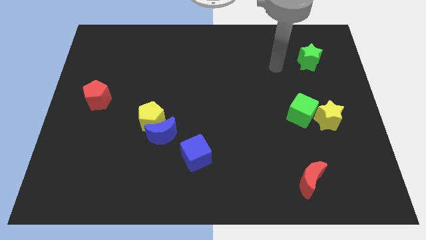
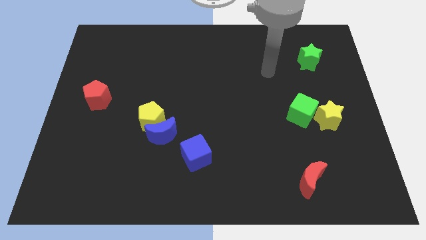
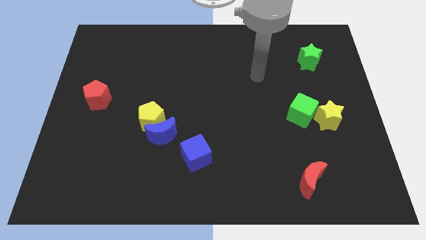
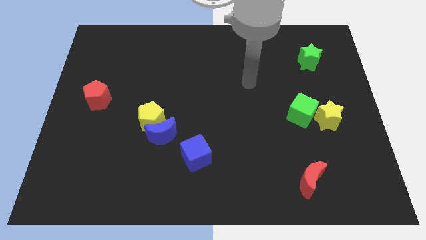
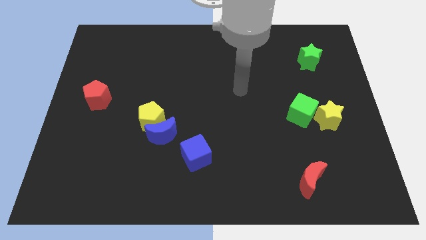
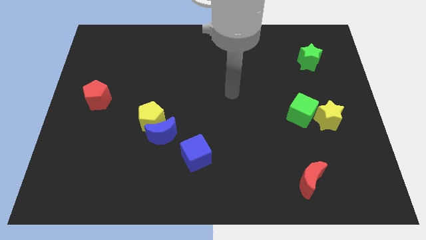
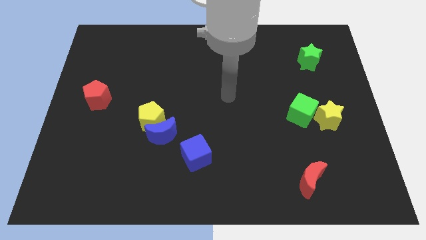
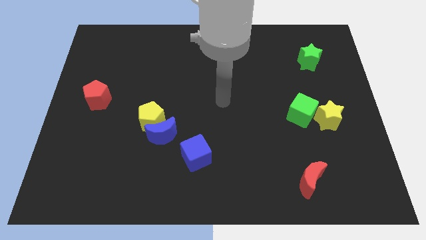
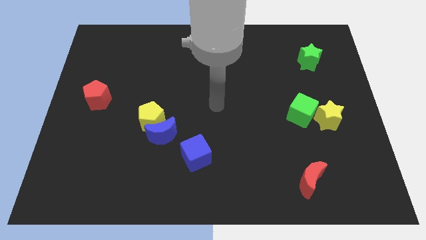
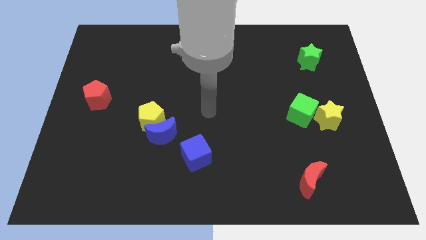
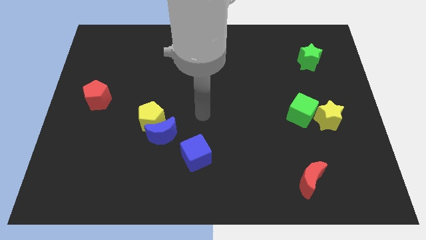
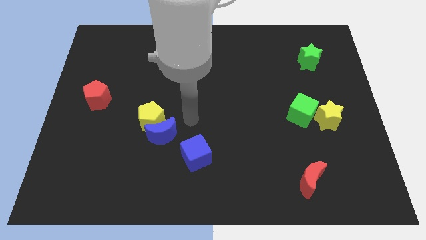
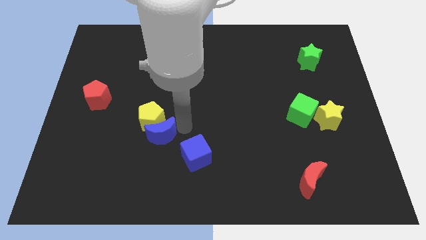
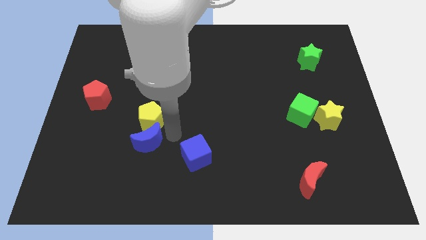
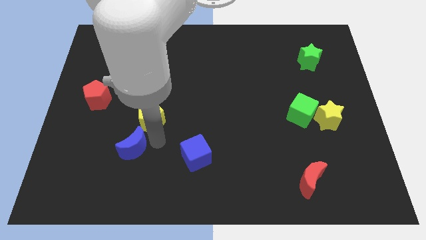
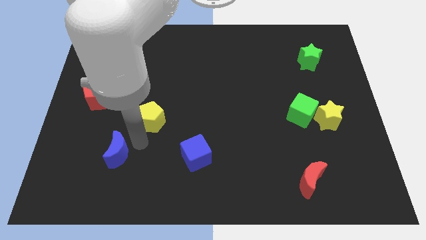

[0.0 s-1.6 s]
move the yellow pentagon away from the blue moon

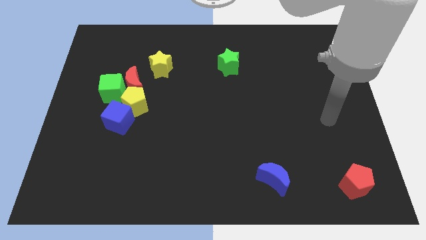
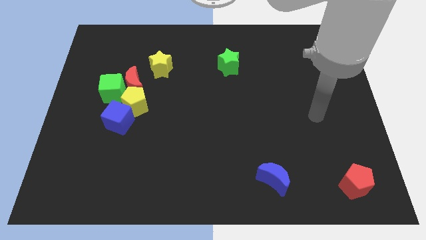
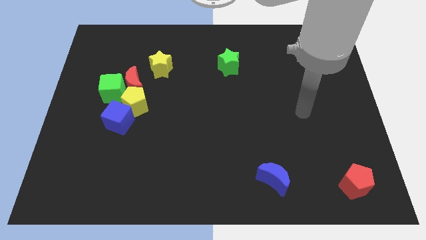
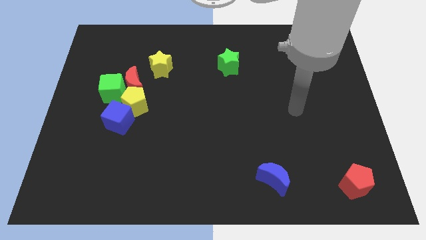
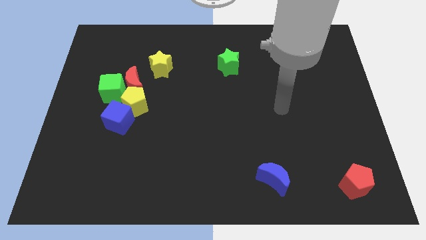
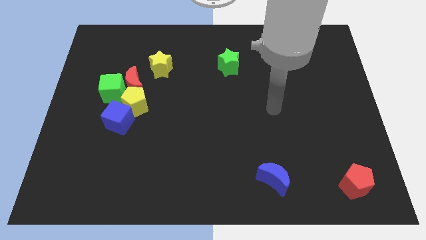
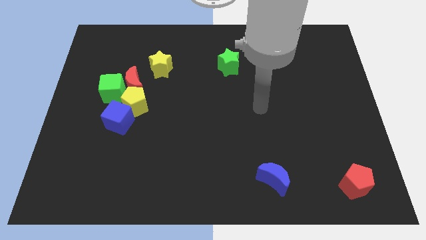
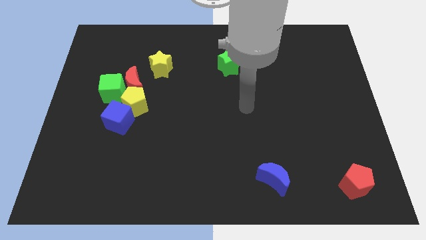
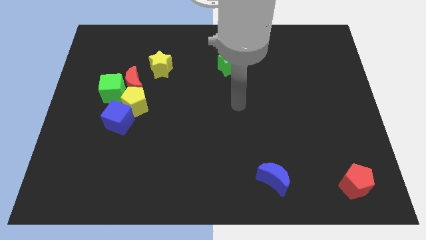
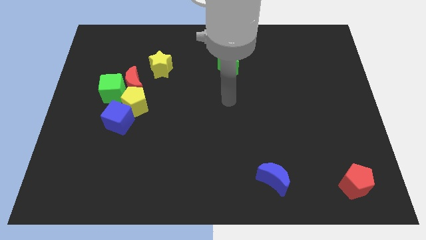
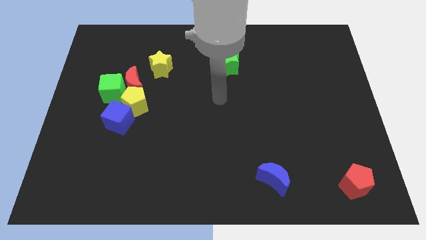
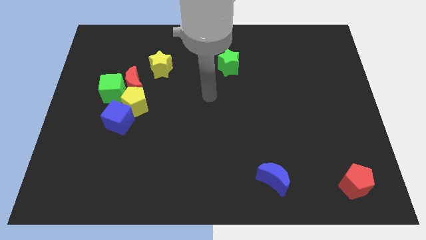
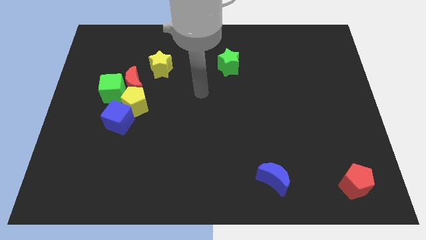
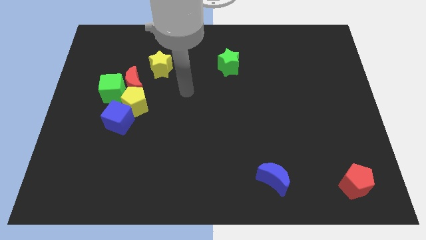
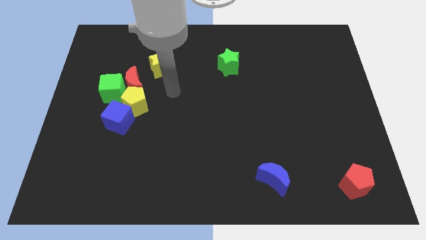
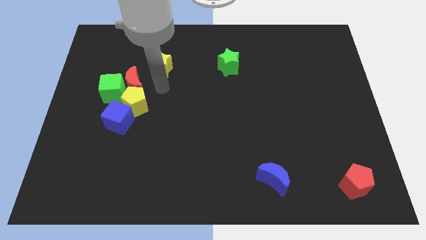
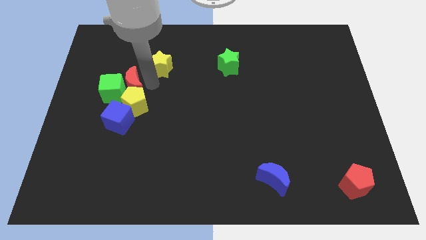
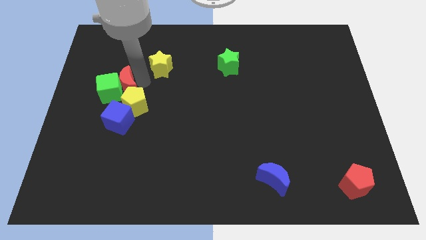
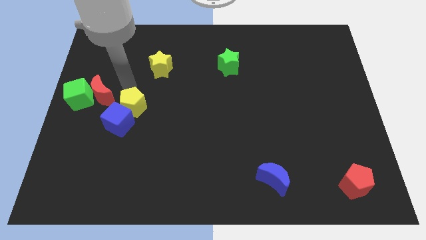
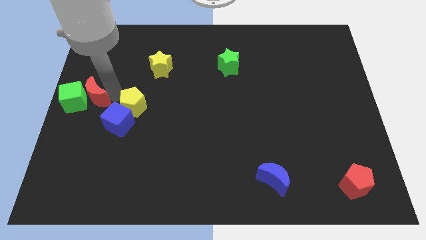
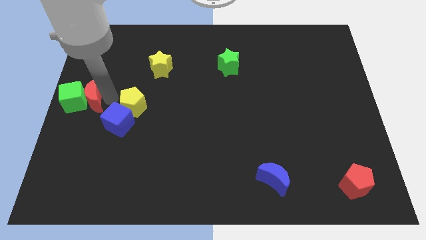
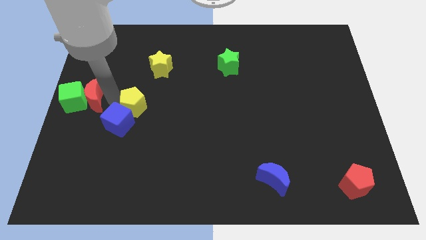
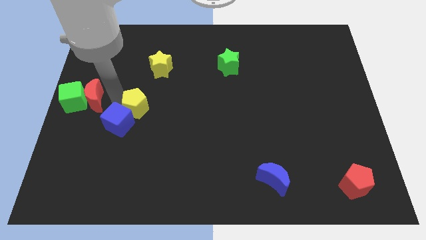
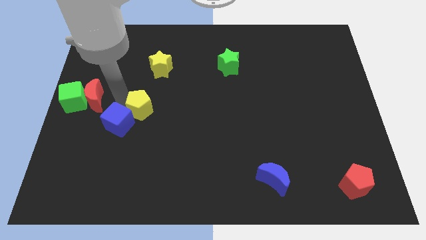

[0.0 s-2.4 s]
pull the yellow pentagon apart from the blue cube, red moon, and green cube

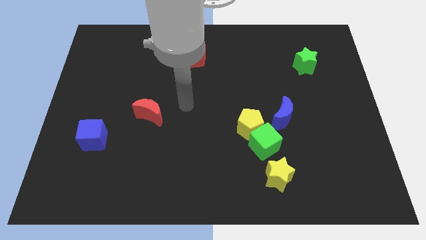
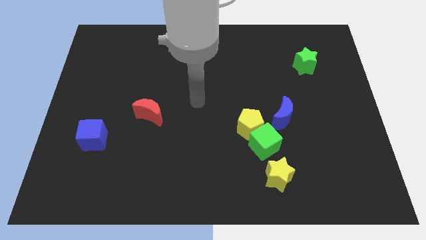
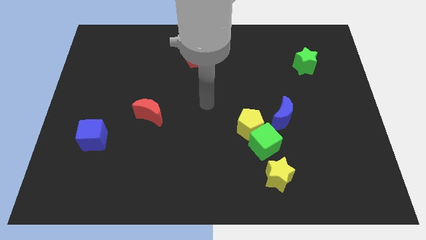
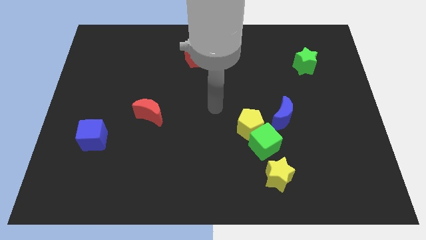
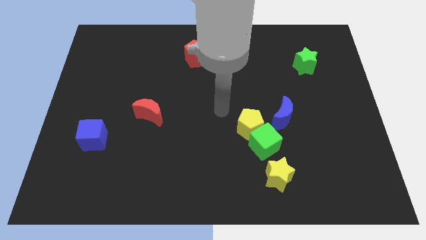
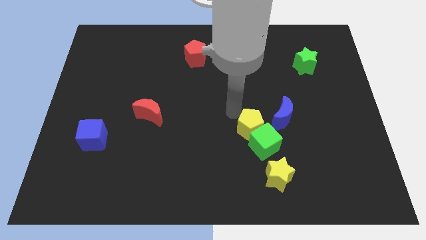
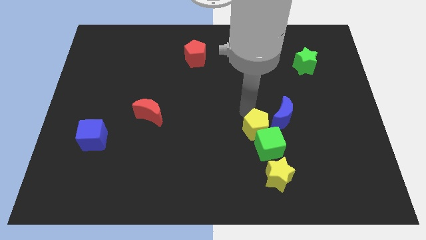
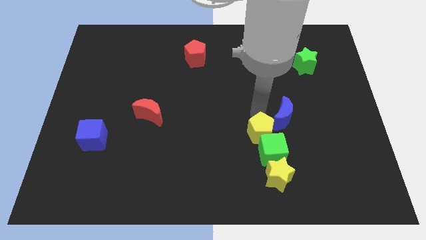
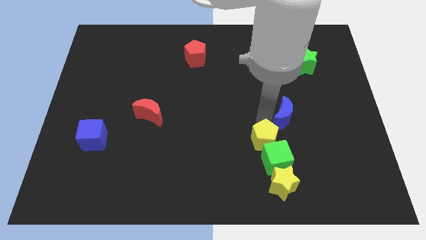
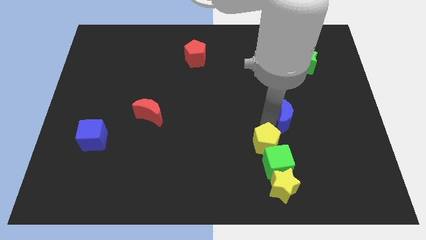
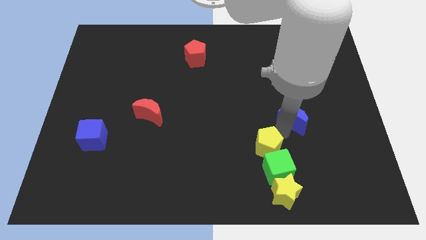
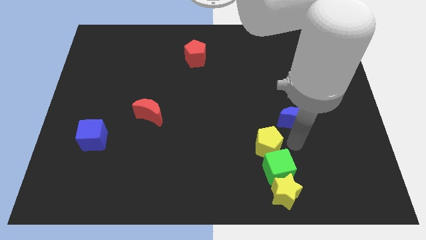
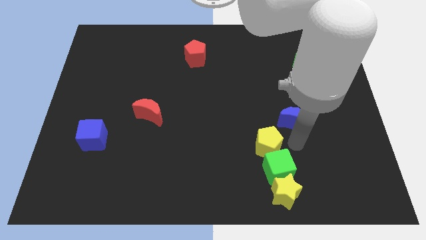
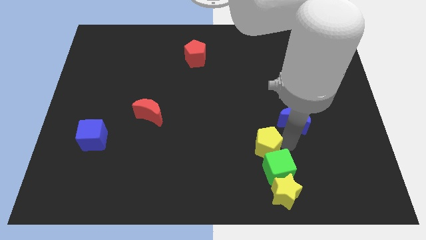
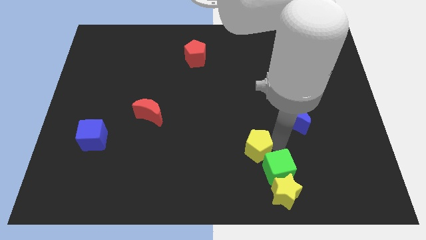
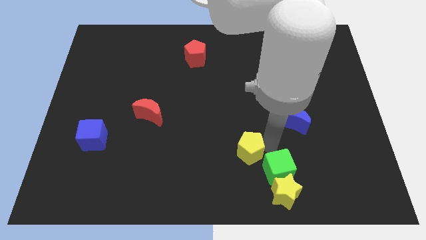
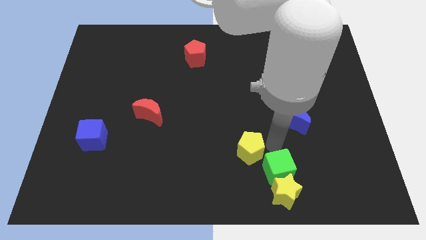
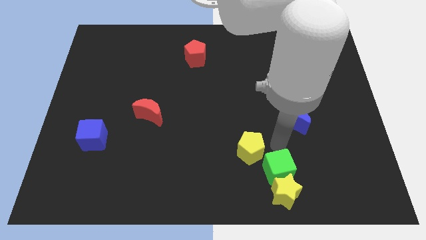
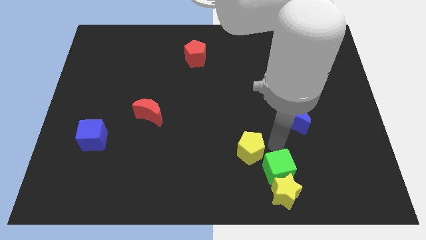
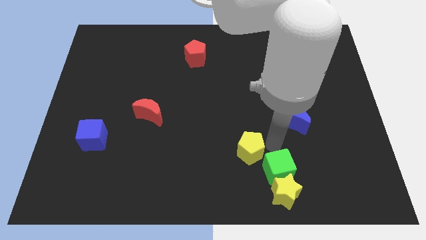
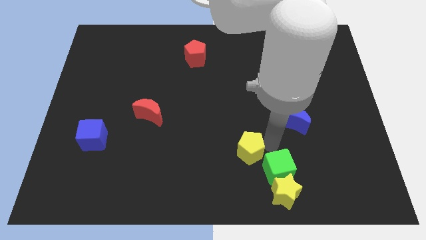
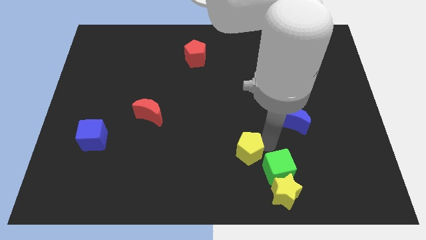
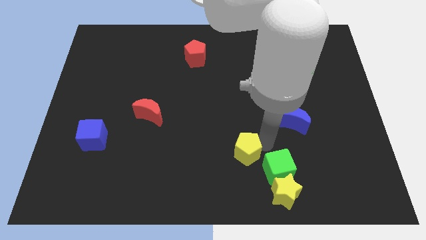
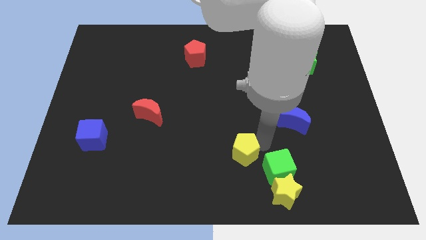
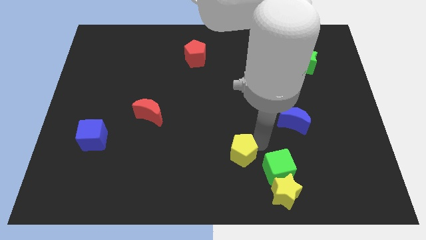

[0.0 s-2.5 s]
pull the yellow pentagon apart from the green cube and blue moon

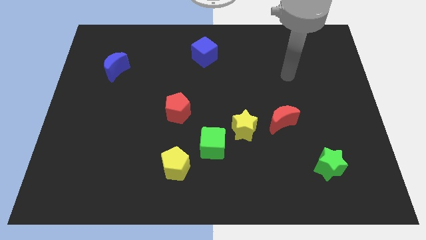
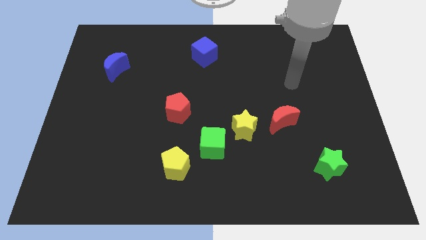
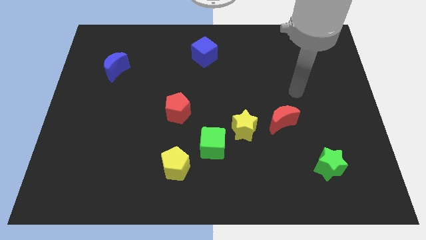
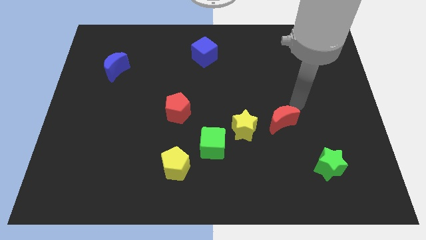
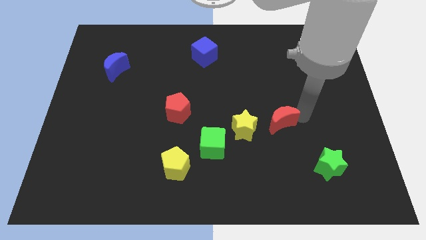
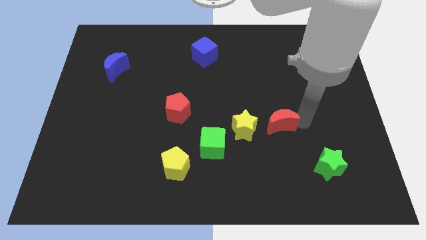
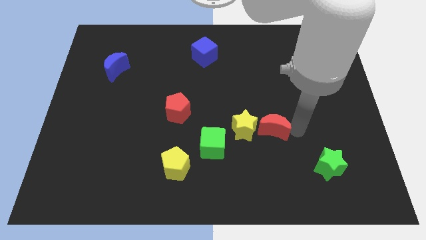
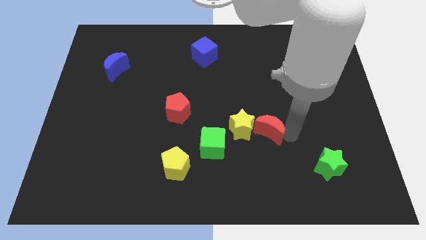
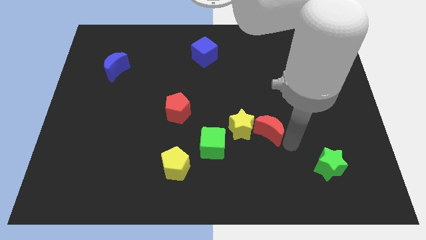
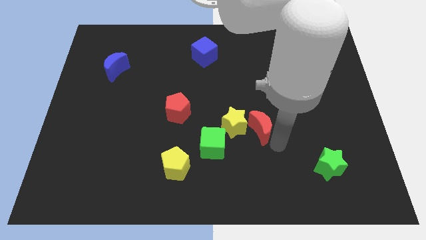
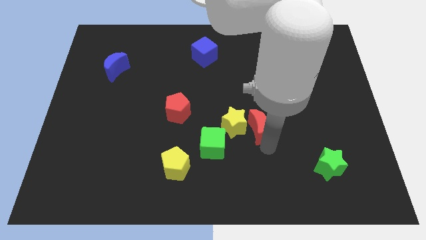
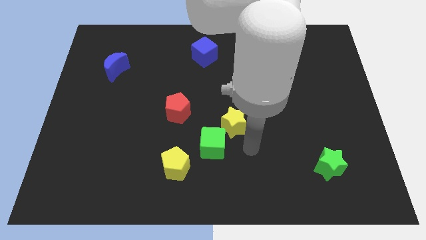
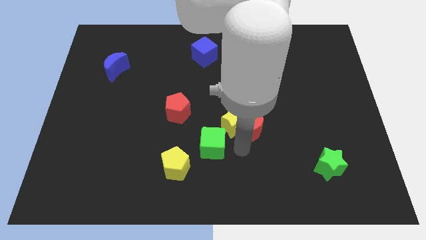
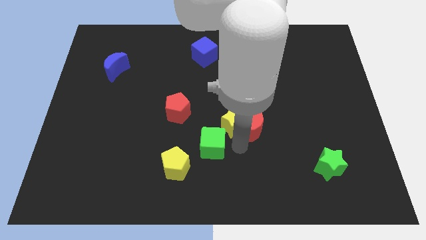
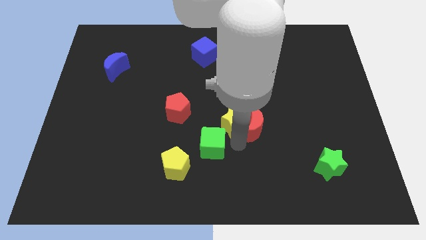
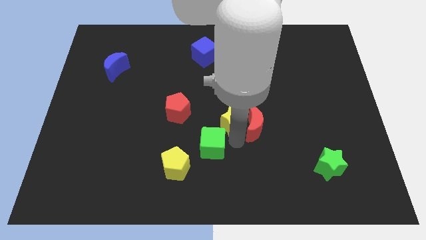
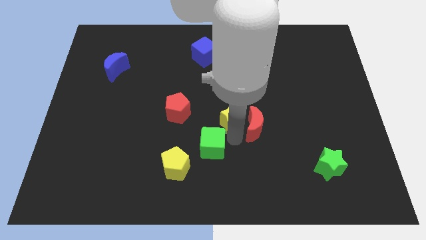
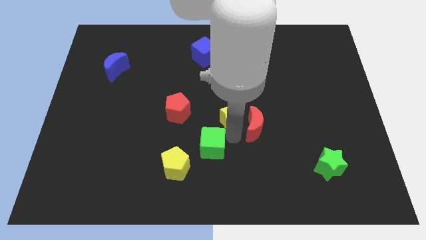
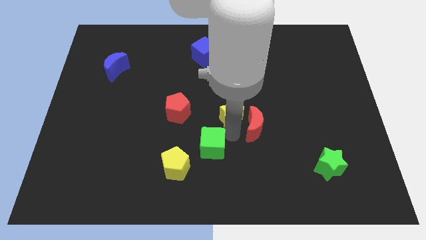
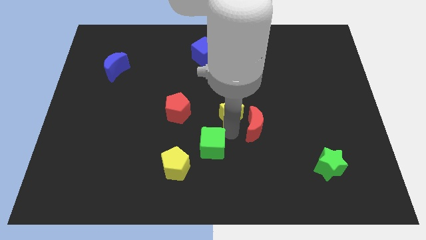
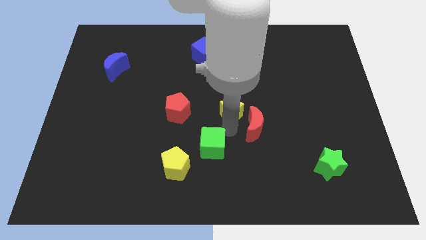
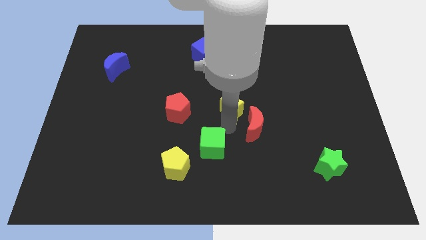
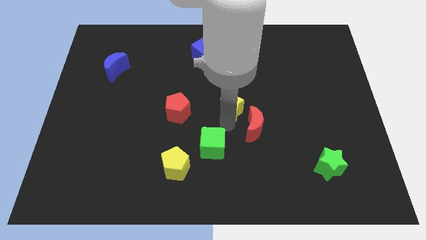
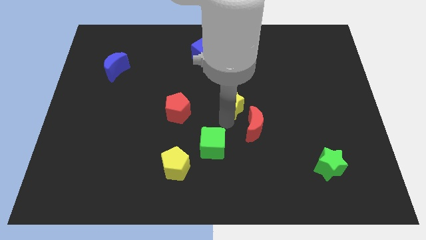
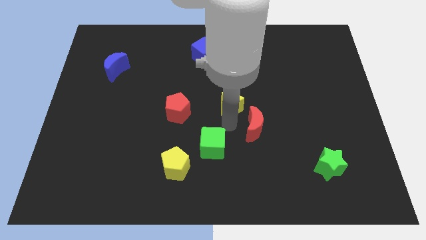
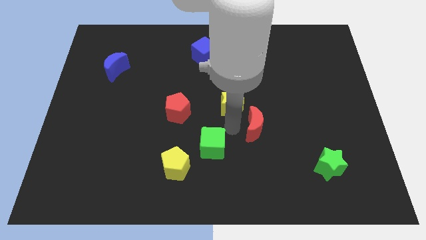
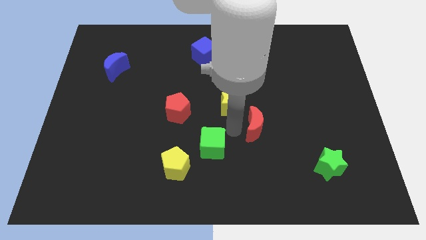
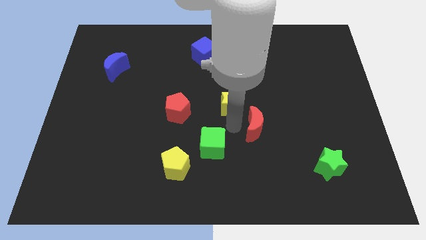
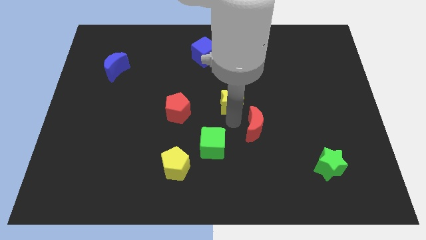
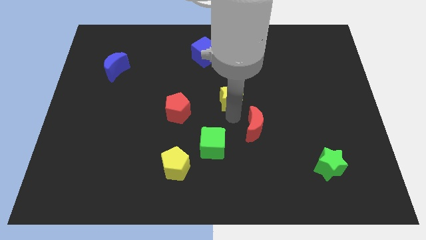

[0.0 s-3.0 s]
separate the yellow star from the green cube and red moon
